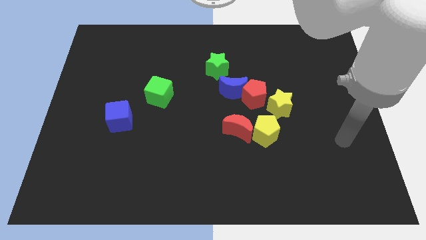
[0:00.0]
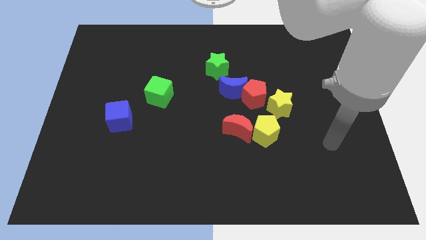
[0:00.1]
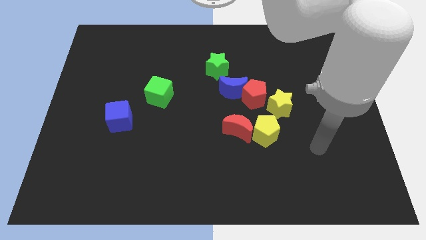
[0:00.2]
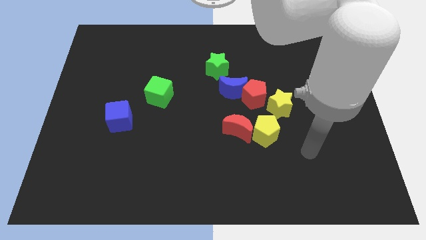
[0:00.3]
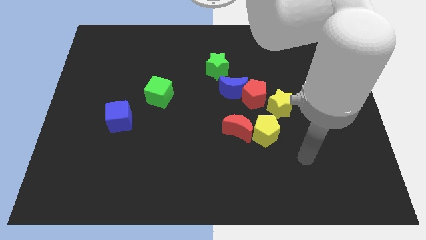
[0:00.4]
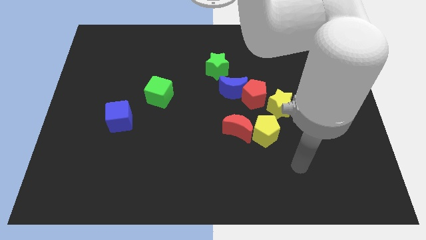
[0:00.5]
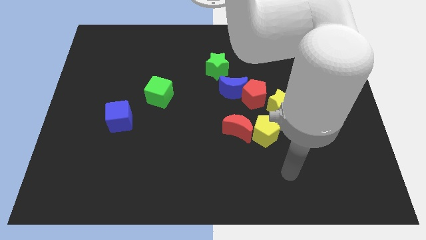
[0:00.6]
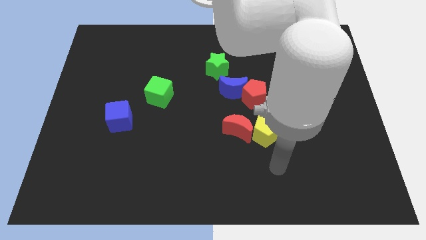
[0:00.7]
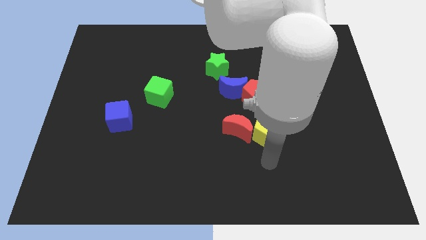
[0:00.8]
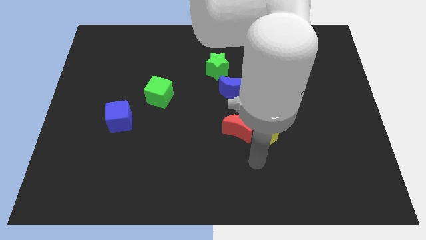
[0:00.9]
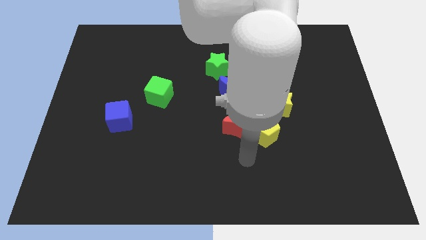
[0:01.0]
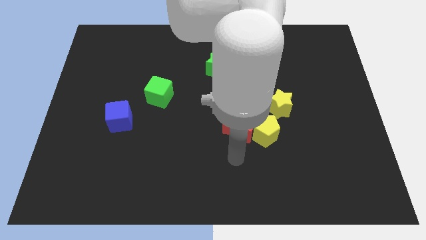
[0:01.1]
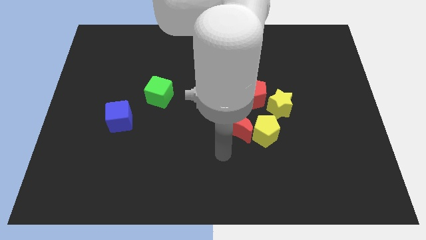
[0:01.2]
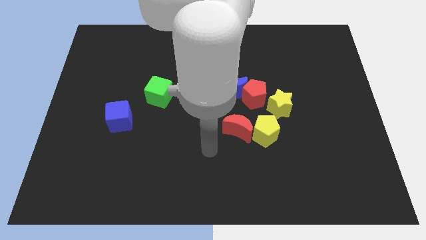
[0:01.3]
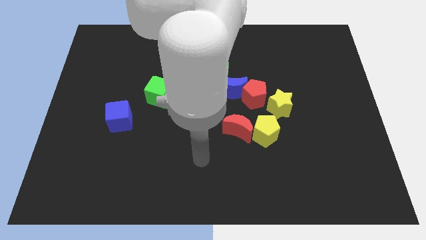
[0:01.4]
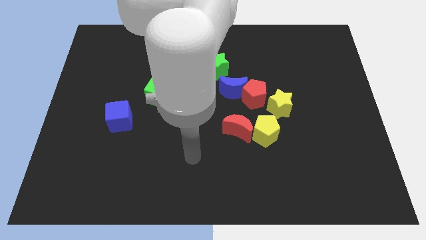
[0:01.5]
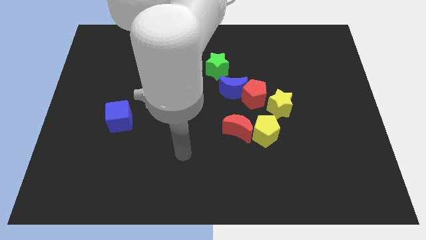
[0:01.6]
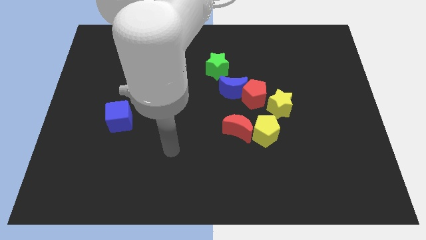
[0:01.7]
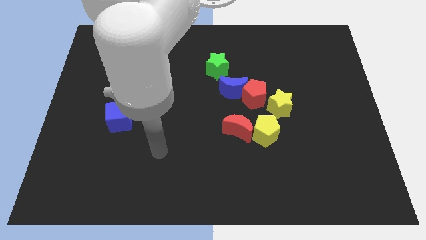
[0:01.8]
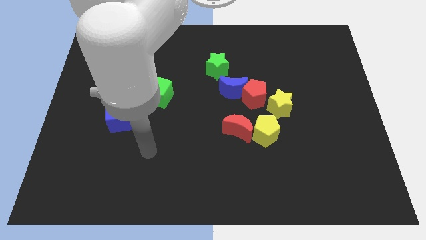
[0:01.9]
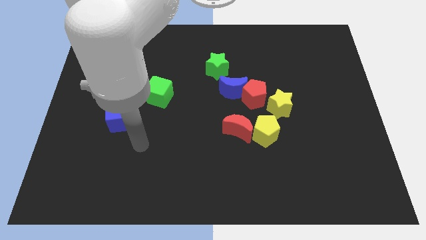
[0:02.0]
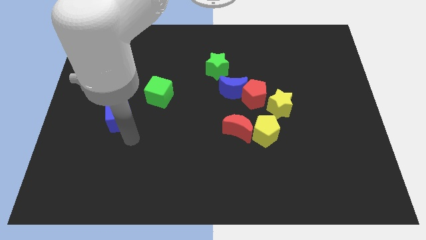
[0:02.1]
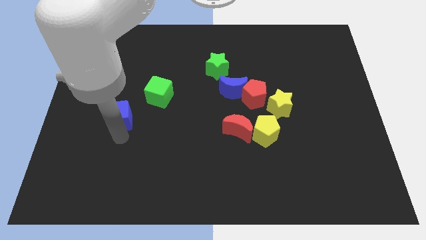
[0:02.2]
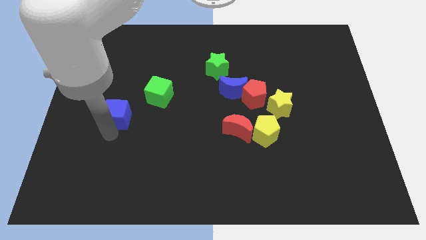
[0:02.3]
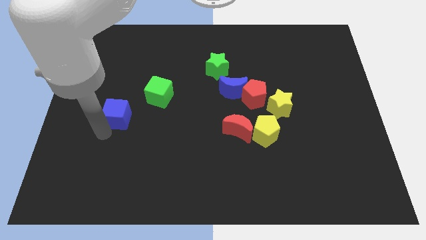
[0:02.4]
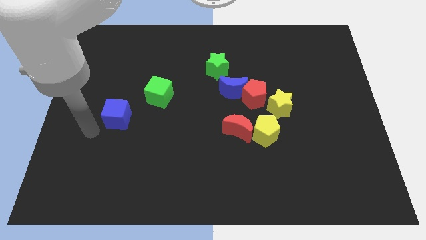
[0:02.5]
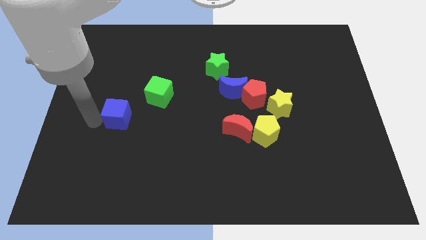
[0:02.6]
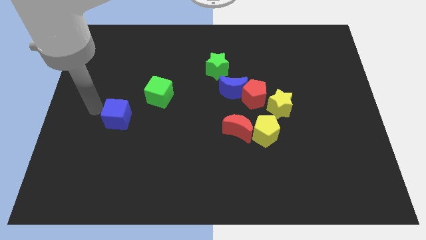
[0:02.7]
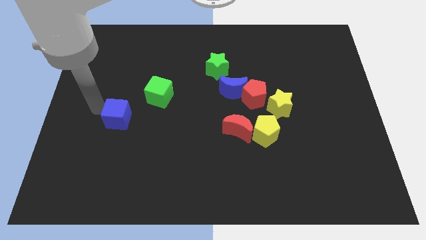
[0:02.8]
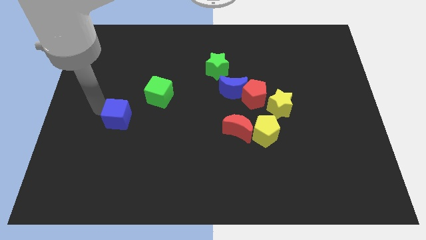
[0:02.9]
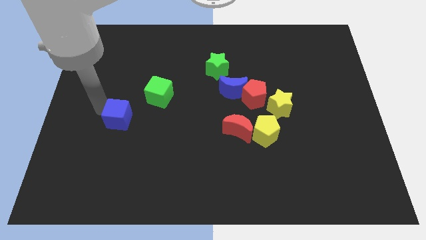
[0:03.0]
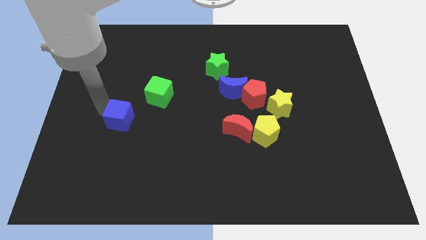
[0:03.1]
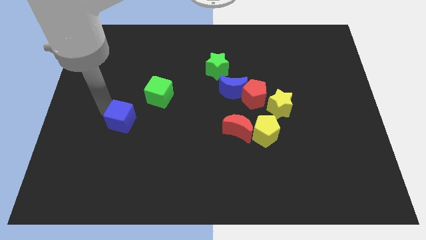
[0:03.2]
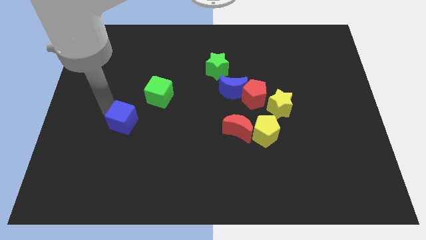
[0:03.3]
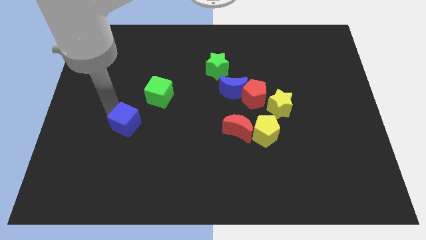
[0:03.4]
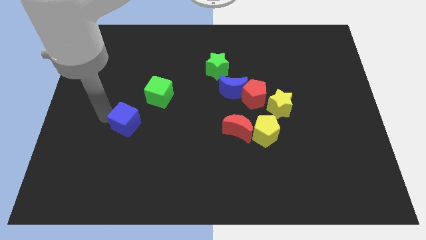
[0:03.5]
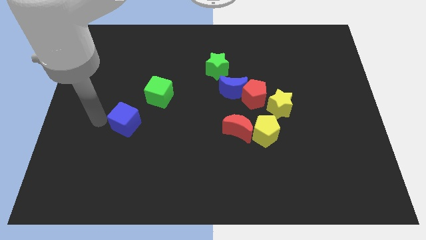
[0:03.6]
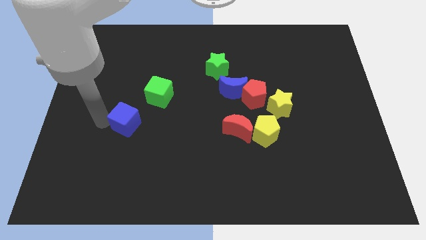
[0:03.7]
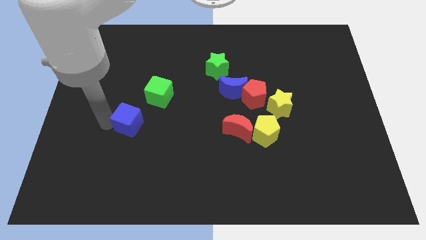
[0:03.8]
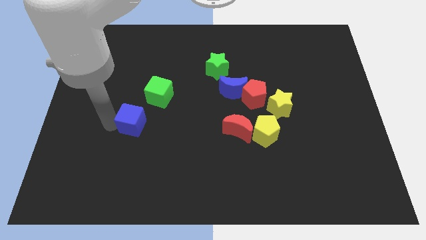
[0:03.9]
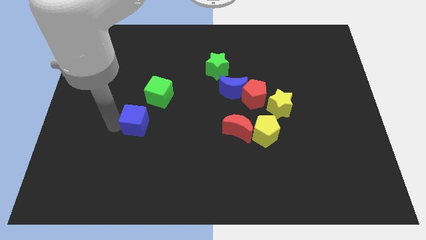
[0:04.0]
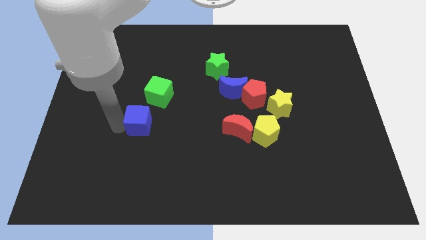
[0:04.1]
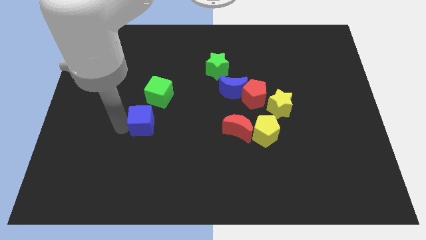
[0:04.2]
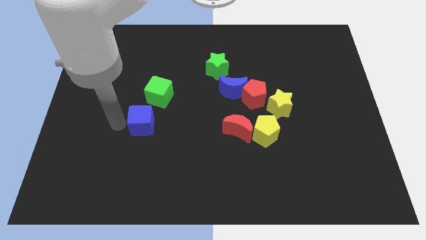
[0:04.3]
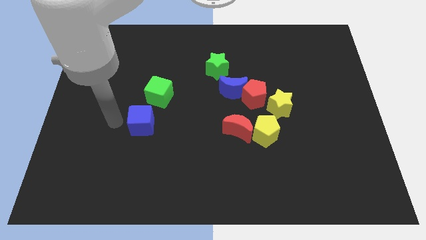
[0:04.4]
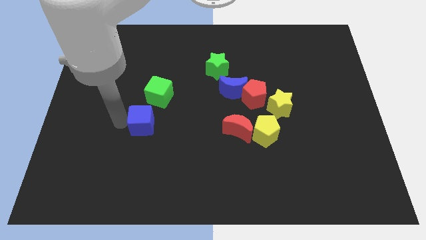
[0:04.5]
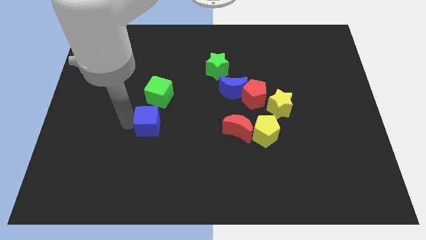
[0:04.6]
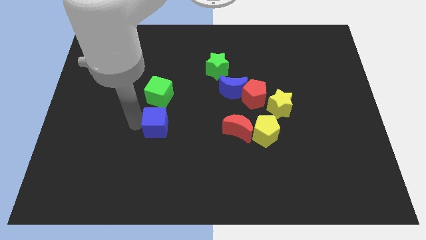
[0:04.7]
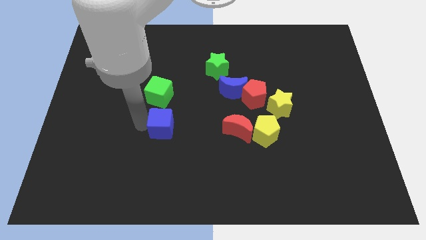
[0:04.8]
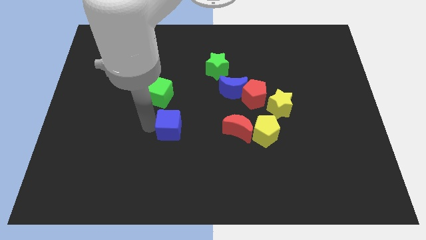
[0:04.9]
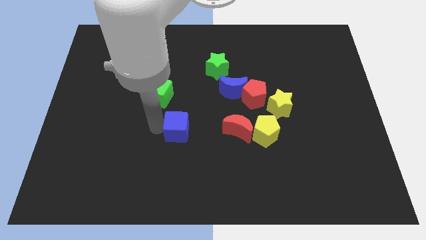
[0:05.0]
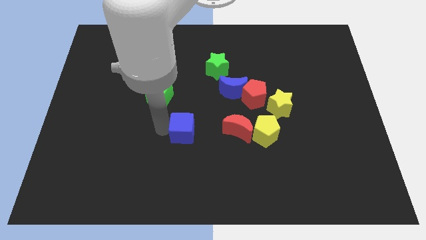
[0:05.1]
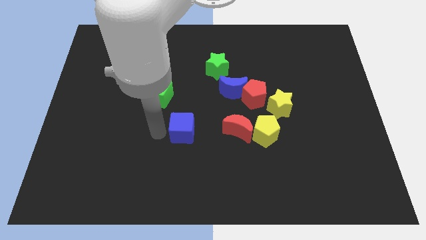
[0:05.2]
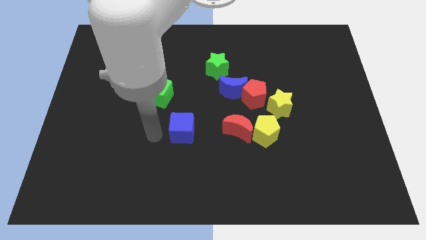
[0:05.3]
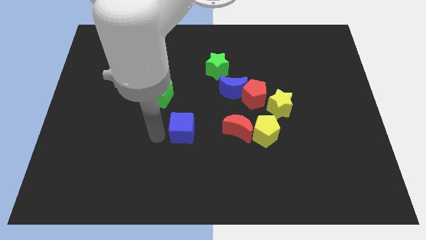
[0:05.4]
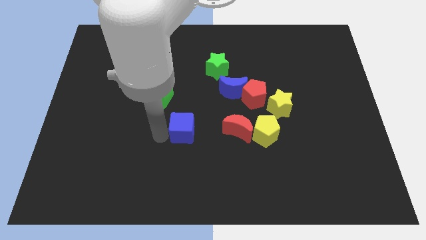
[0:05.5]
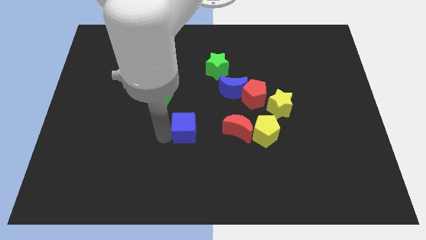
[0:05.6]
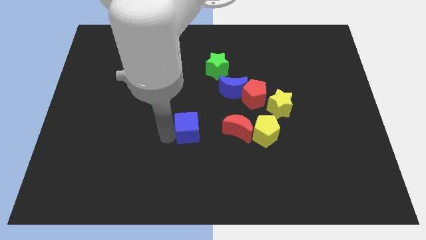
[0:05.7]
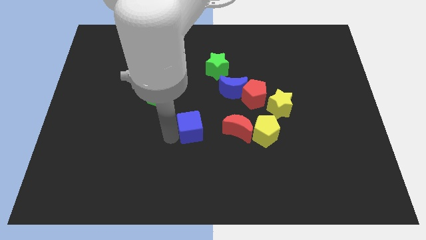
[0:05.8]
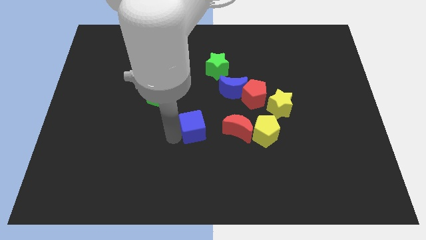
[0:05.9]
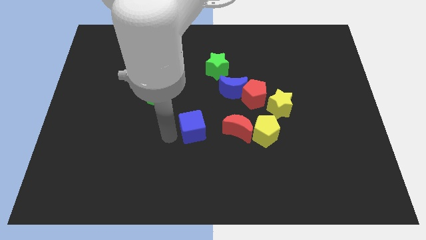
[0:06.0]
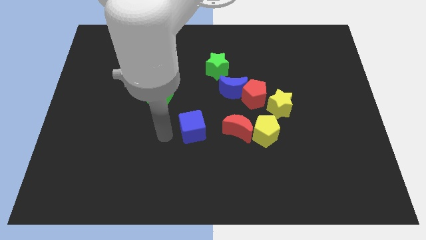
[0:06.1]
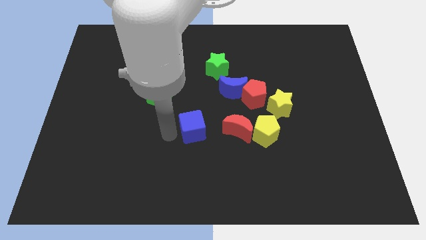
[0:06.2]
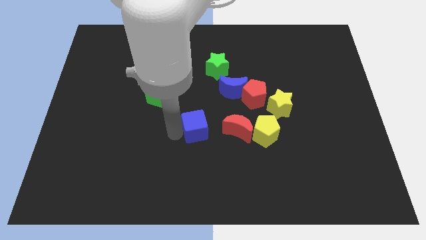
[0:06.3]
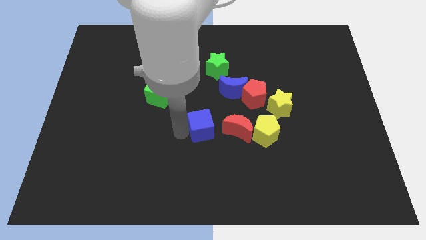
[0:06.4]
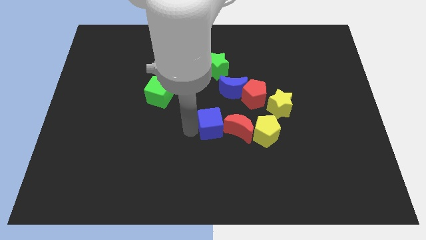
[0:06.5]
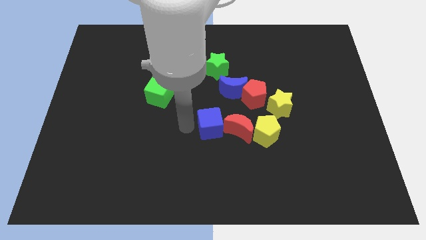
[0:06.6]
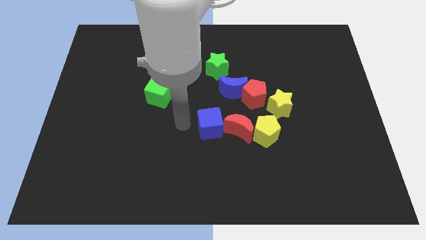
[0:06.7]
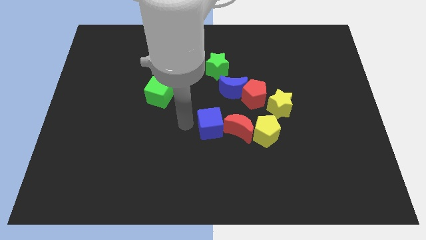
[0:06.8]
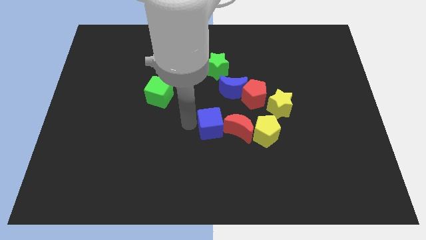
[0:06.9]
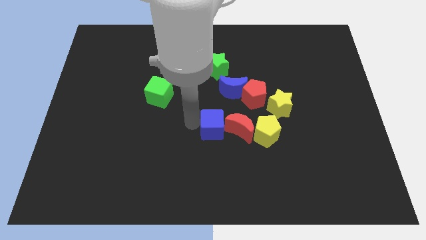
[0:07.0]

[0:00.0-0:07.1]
slide the blue cube close to the red moon
